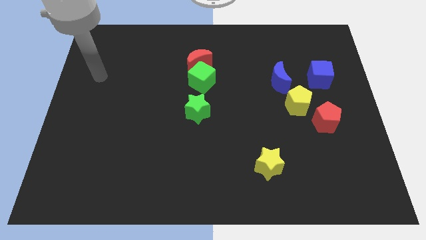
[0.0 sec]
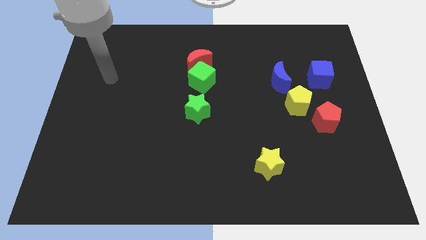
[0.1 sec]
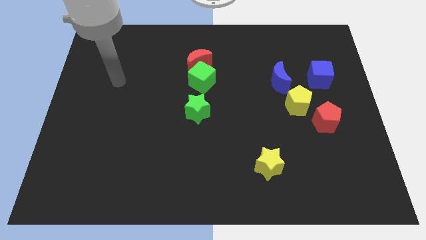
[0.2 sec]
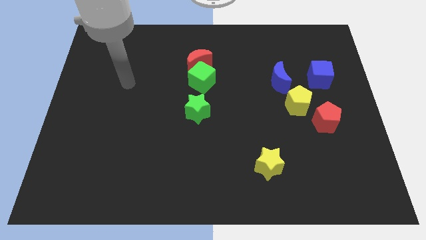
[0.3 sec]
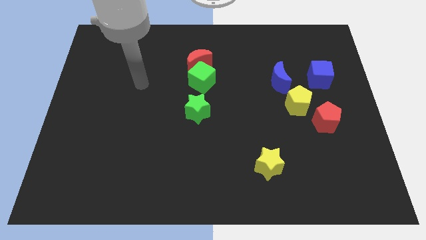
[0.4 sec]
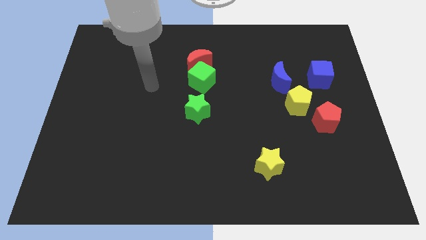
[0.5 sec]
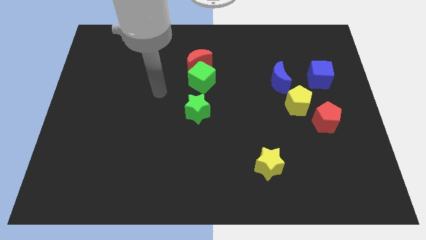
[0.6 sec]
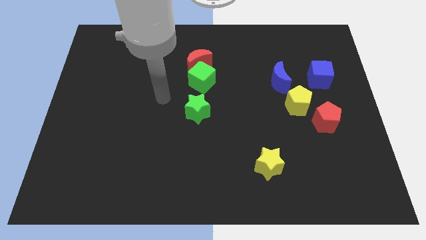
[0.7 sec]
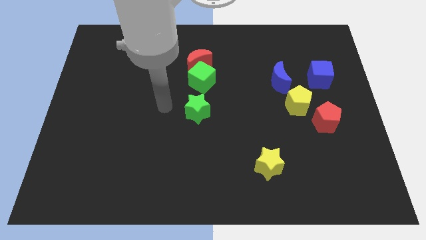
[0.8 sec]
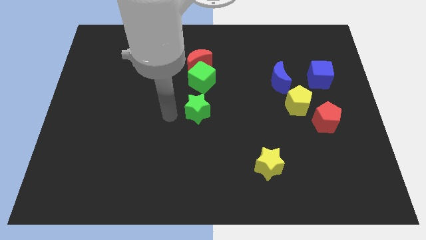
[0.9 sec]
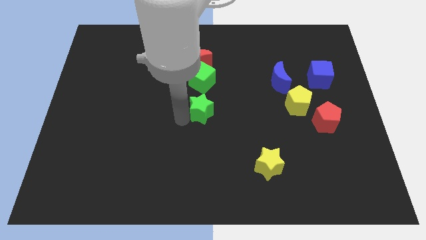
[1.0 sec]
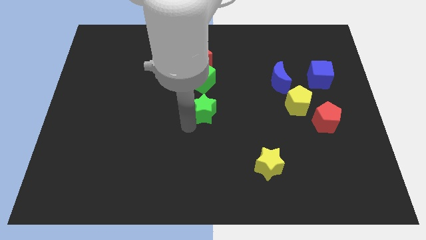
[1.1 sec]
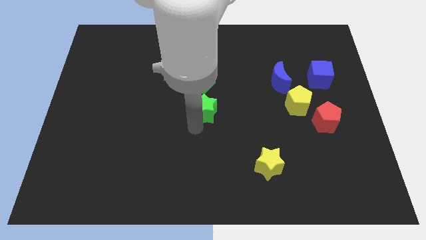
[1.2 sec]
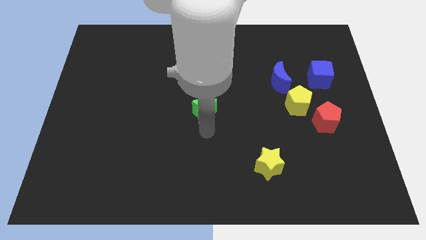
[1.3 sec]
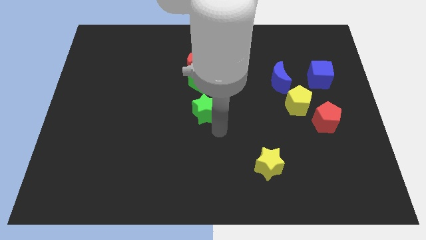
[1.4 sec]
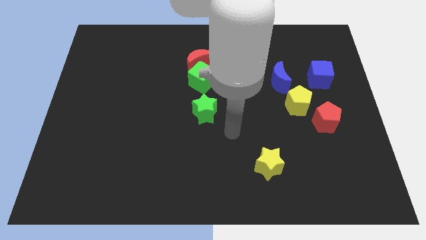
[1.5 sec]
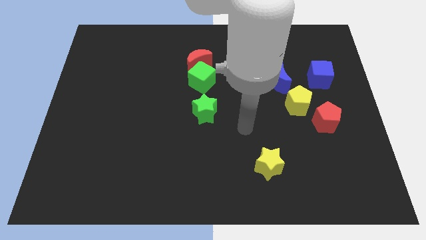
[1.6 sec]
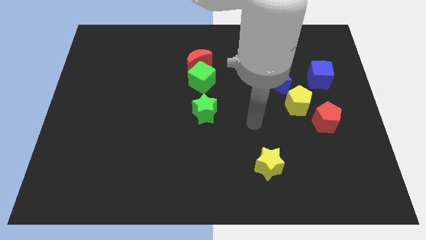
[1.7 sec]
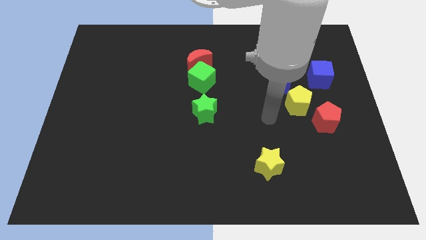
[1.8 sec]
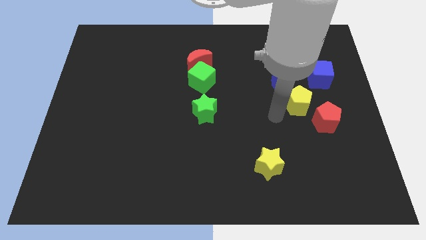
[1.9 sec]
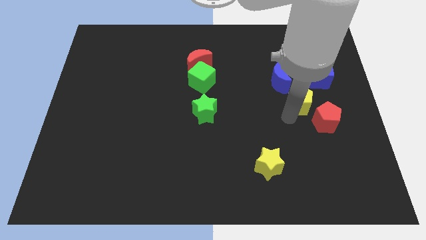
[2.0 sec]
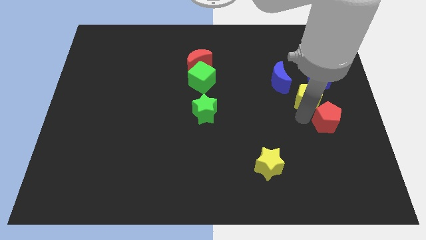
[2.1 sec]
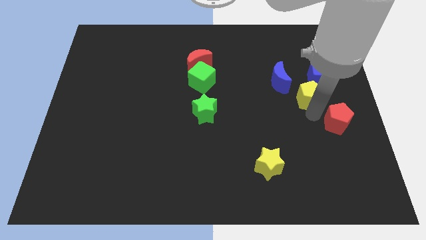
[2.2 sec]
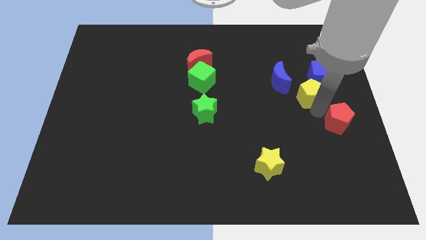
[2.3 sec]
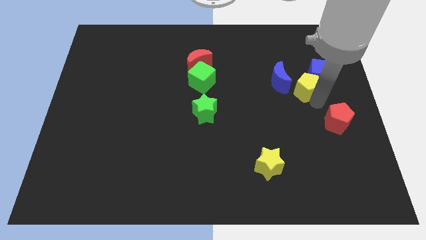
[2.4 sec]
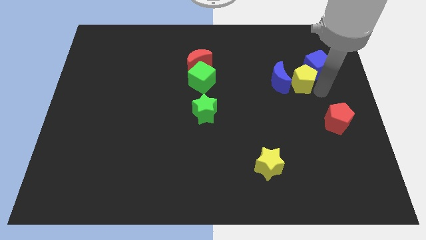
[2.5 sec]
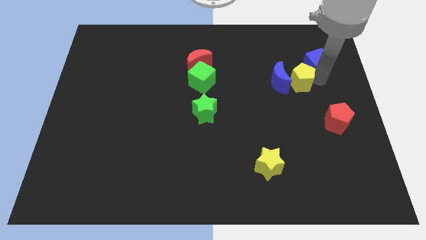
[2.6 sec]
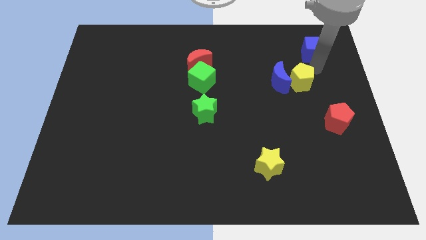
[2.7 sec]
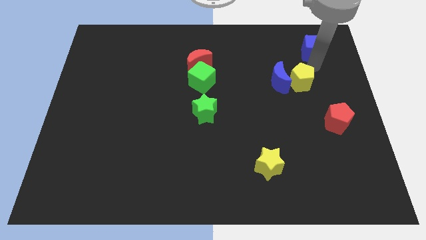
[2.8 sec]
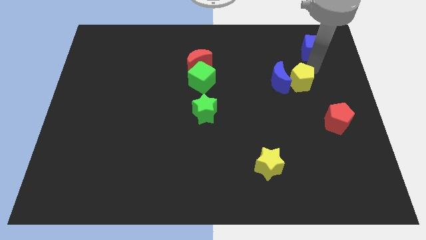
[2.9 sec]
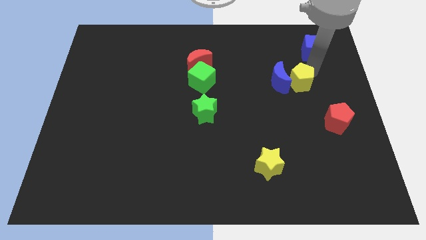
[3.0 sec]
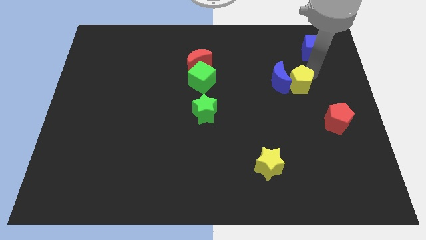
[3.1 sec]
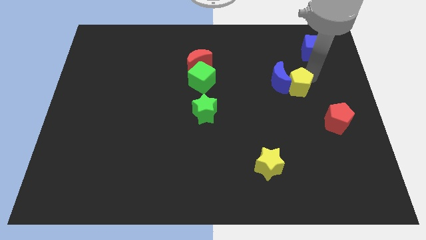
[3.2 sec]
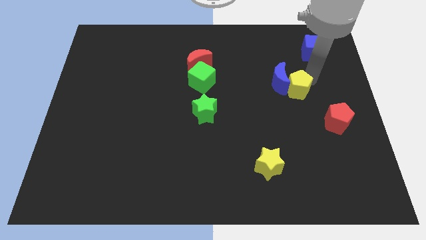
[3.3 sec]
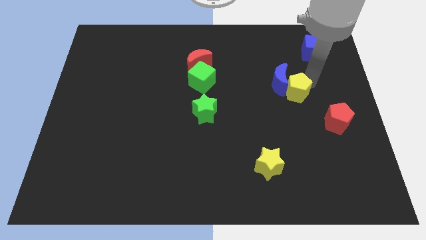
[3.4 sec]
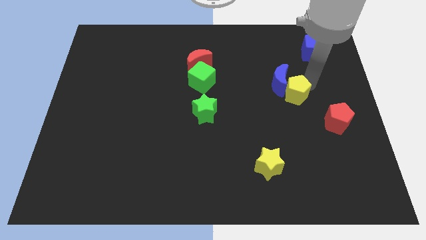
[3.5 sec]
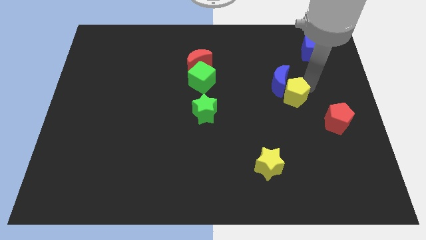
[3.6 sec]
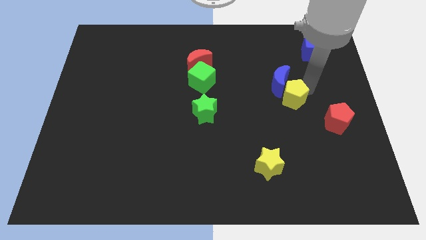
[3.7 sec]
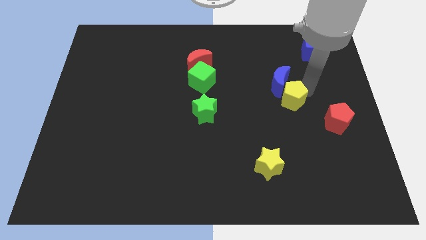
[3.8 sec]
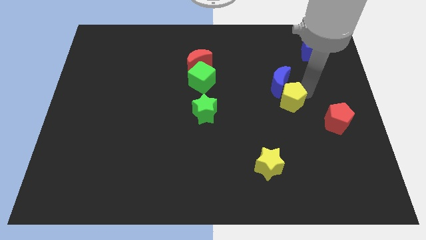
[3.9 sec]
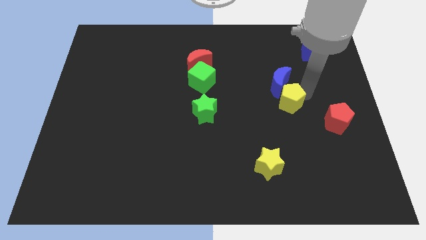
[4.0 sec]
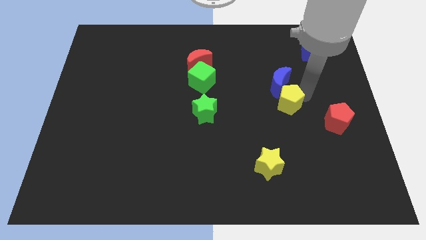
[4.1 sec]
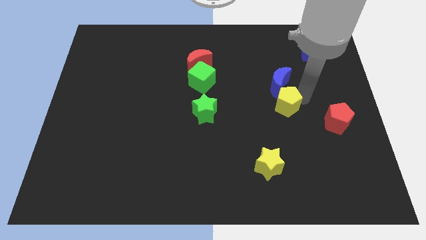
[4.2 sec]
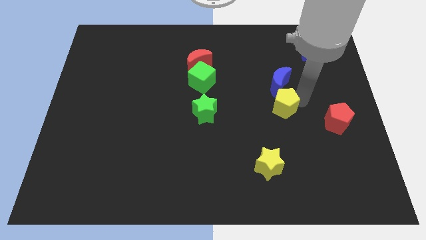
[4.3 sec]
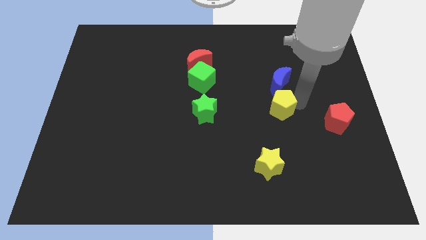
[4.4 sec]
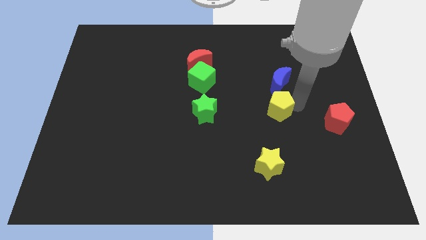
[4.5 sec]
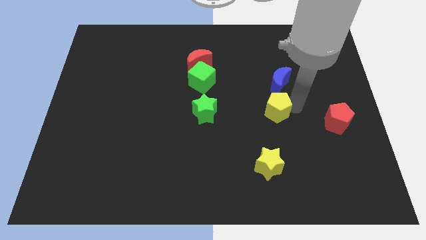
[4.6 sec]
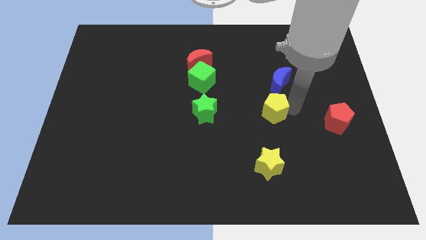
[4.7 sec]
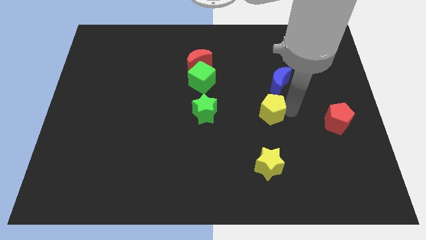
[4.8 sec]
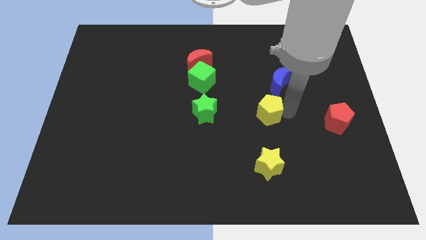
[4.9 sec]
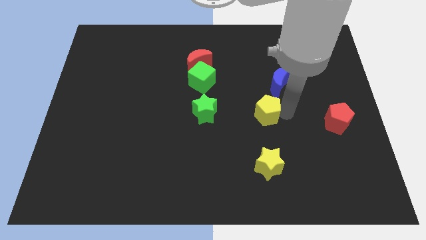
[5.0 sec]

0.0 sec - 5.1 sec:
slightly move the yellow pentagon to the left

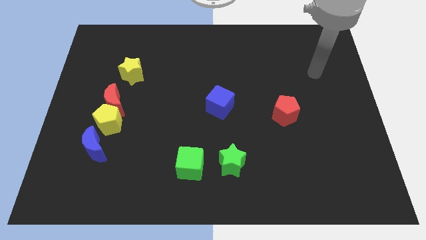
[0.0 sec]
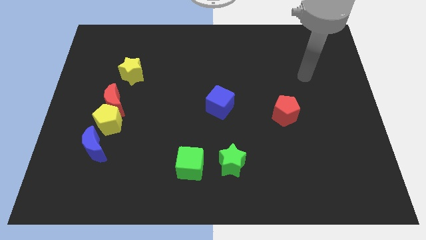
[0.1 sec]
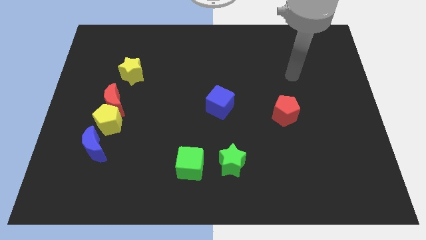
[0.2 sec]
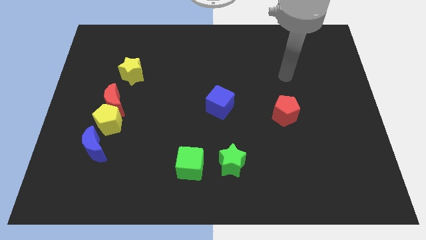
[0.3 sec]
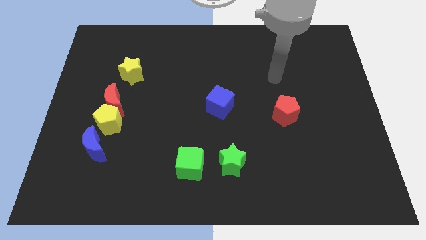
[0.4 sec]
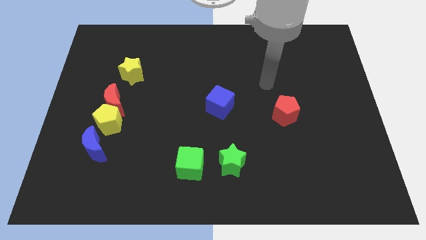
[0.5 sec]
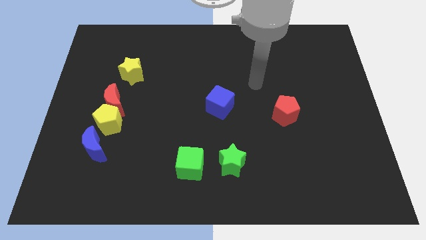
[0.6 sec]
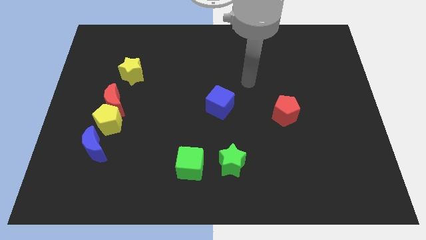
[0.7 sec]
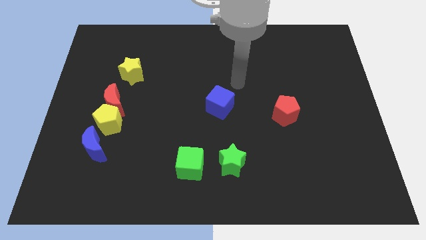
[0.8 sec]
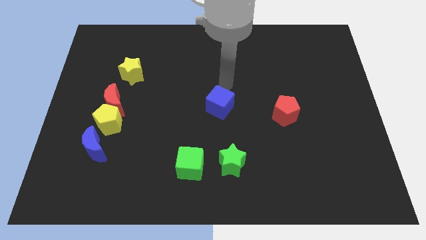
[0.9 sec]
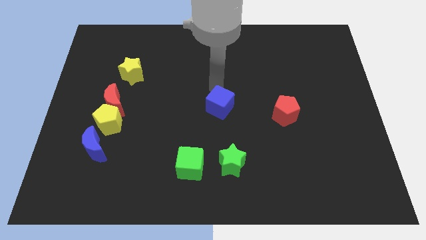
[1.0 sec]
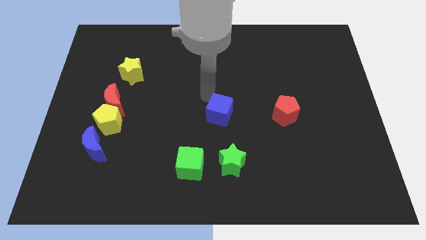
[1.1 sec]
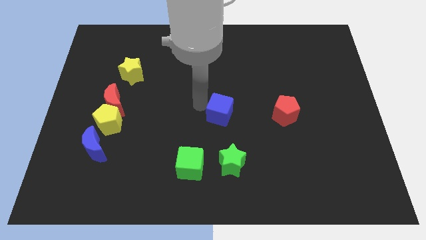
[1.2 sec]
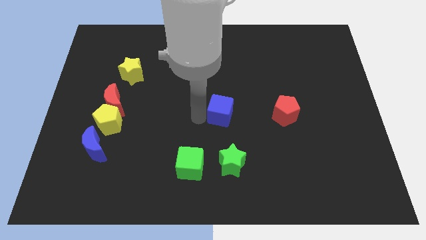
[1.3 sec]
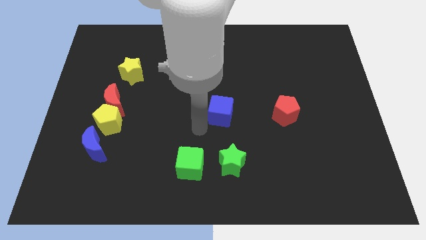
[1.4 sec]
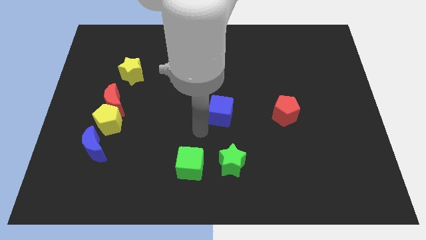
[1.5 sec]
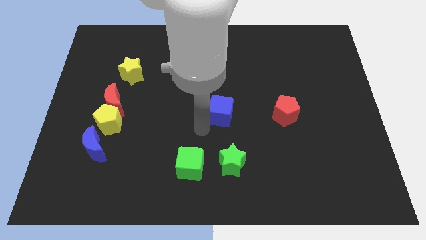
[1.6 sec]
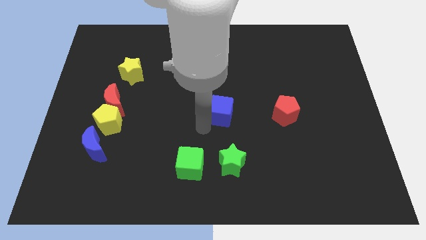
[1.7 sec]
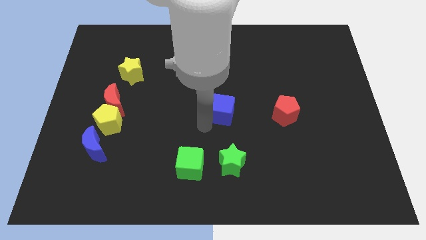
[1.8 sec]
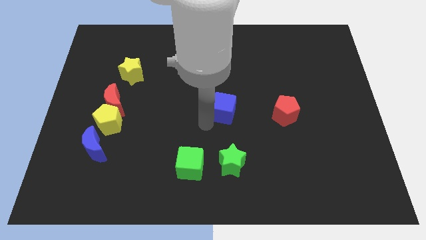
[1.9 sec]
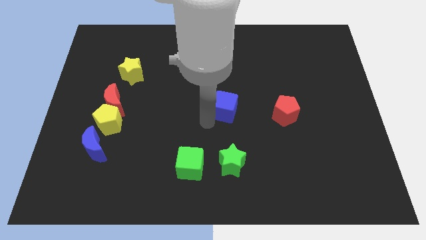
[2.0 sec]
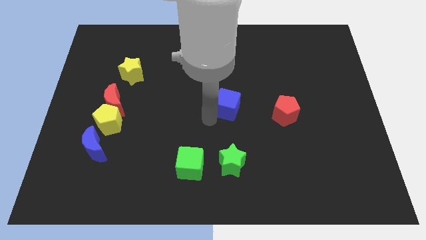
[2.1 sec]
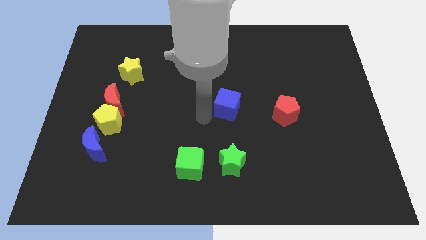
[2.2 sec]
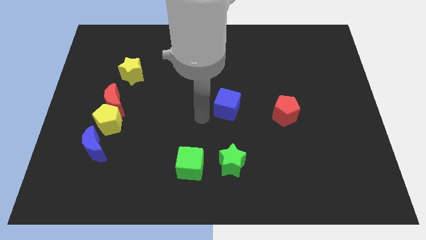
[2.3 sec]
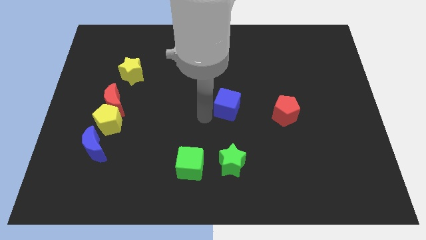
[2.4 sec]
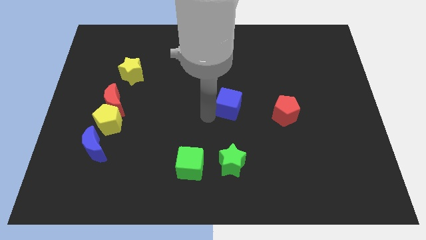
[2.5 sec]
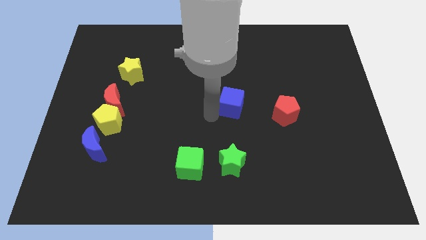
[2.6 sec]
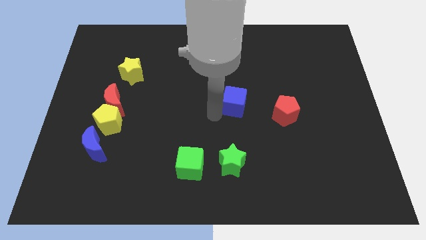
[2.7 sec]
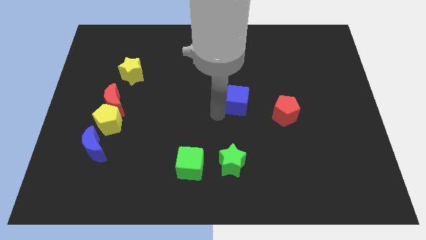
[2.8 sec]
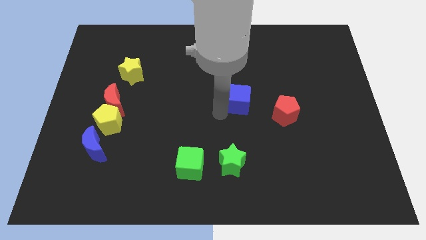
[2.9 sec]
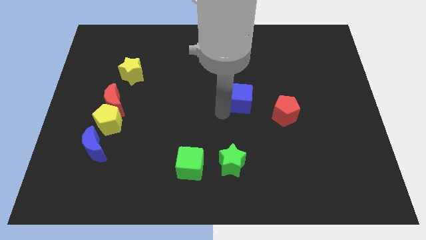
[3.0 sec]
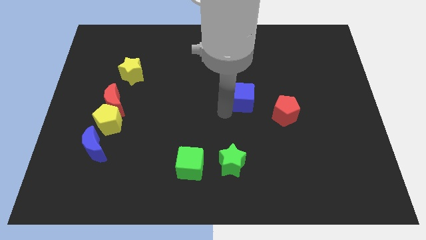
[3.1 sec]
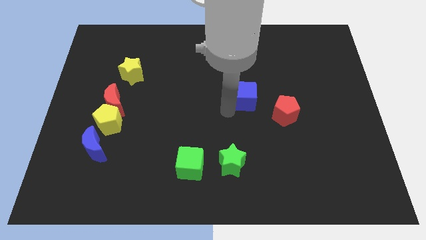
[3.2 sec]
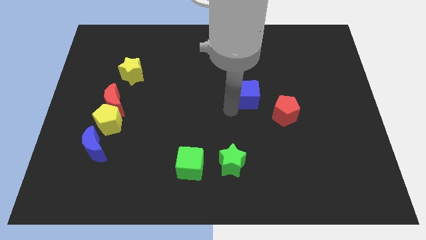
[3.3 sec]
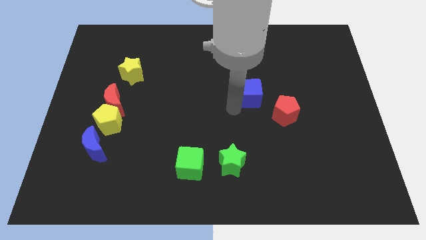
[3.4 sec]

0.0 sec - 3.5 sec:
slide the blue cube right a little
